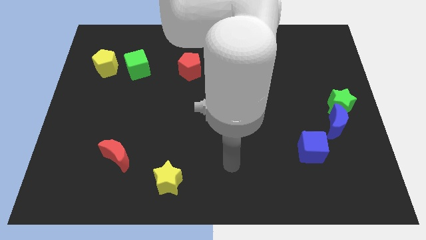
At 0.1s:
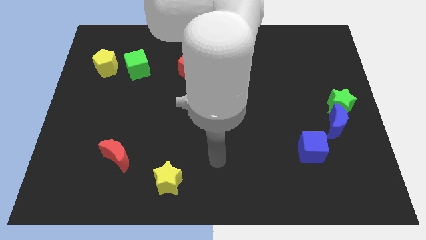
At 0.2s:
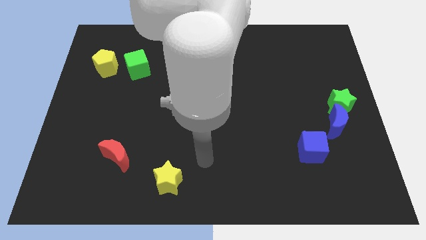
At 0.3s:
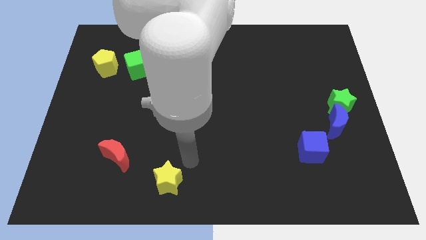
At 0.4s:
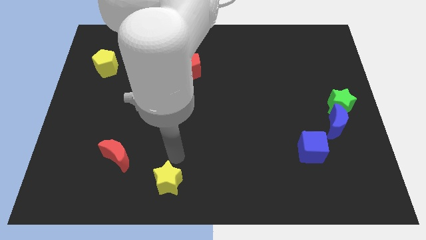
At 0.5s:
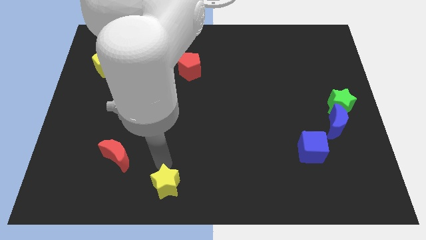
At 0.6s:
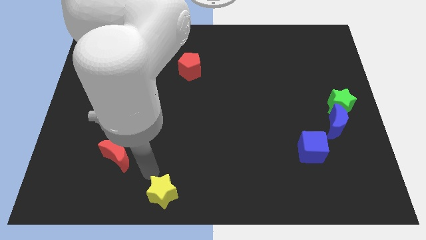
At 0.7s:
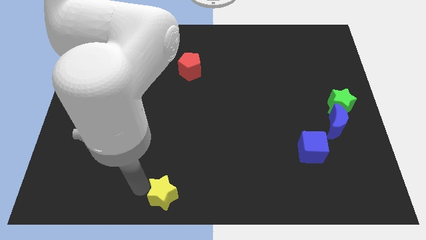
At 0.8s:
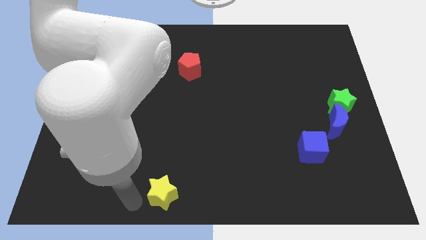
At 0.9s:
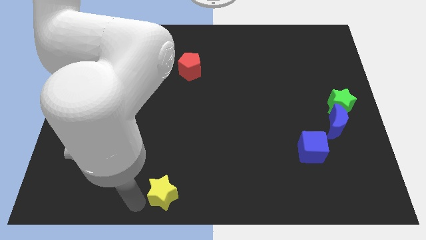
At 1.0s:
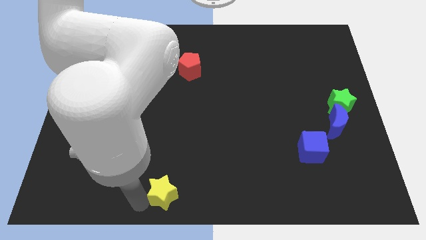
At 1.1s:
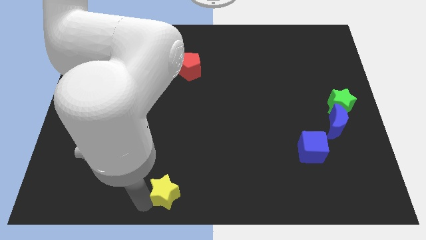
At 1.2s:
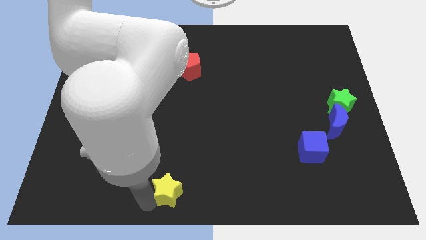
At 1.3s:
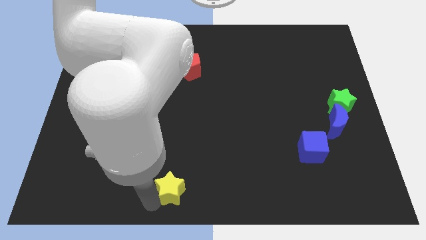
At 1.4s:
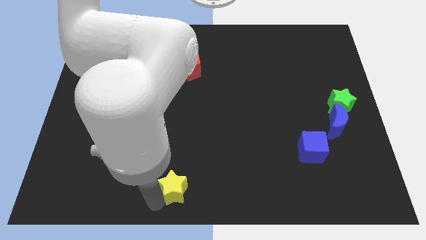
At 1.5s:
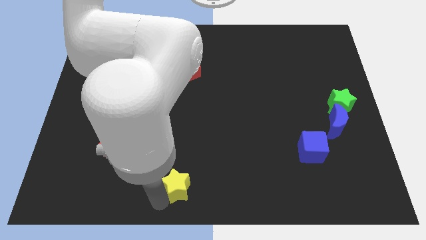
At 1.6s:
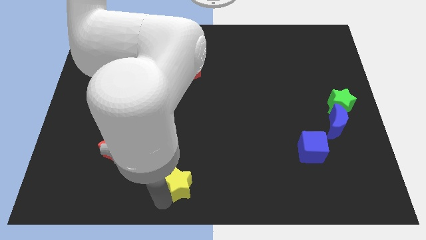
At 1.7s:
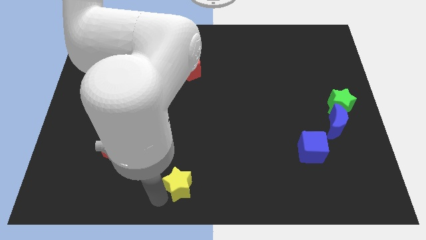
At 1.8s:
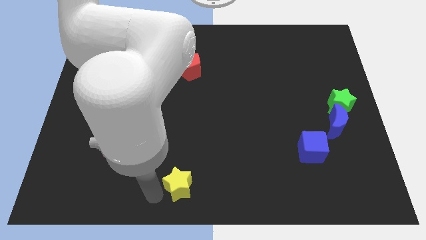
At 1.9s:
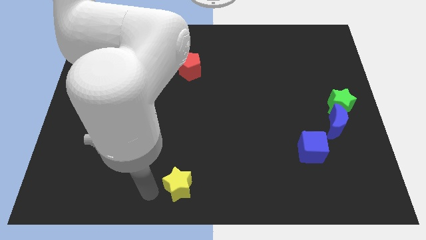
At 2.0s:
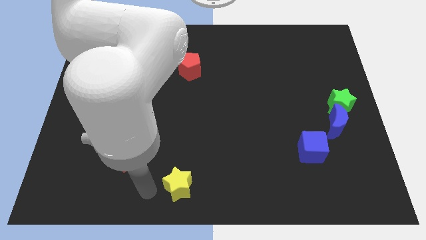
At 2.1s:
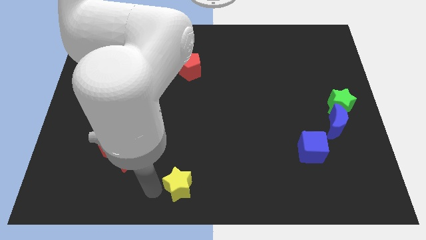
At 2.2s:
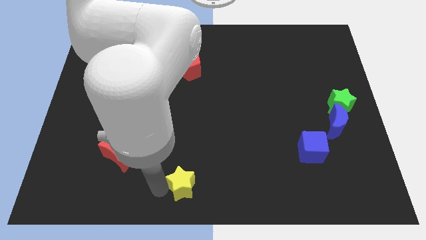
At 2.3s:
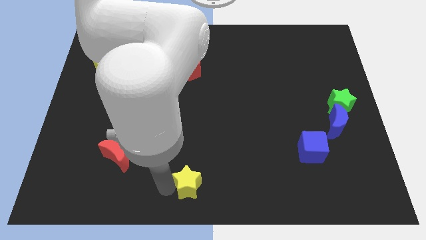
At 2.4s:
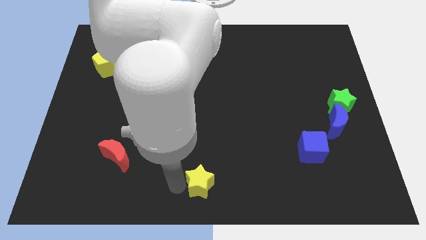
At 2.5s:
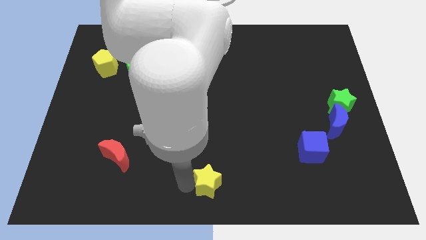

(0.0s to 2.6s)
push the yellow star to the right slightly

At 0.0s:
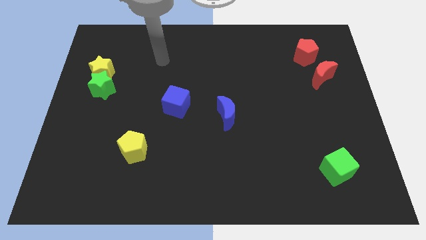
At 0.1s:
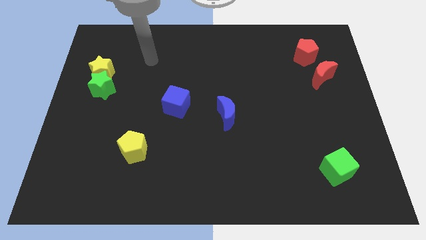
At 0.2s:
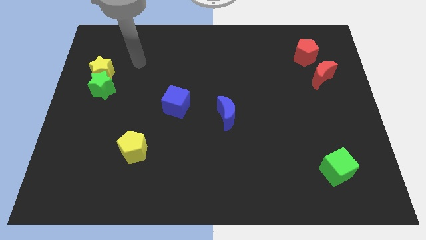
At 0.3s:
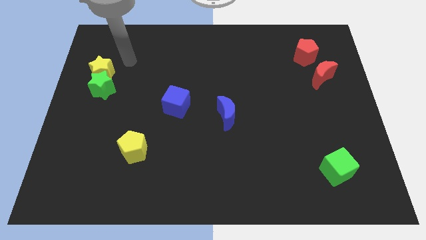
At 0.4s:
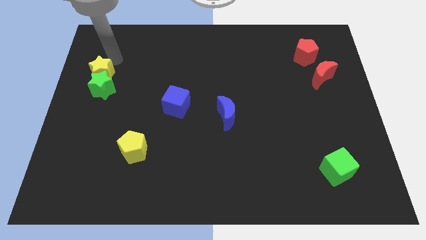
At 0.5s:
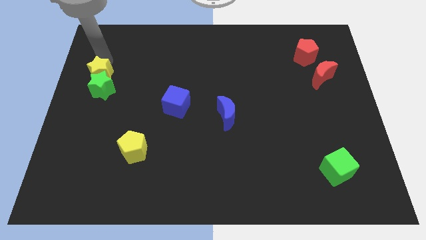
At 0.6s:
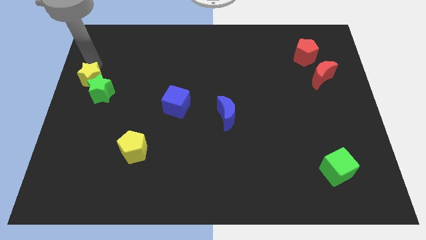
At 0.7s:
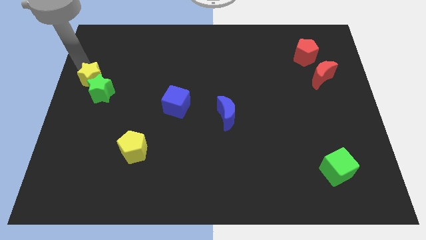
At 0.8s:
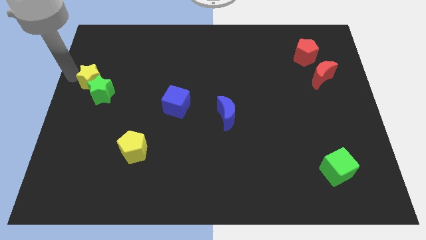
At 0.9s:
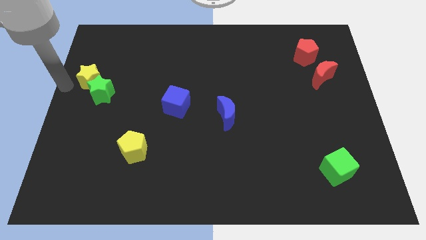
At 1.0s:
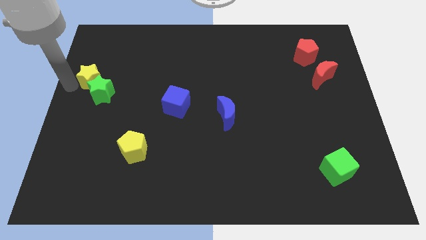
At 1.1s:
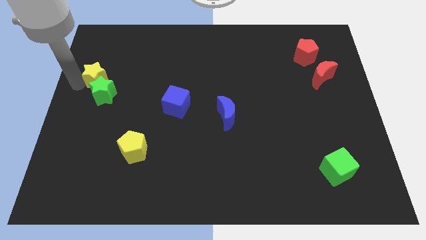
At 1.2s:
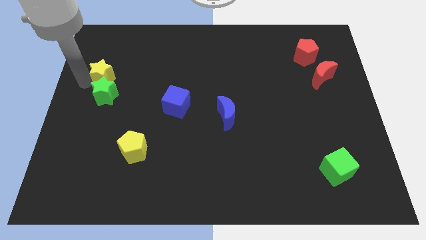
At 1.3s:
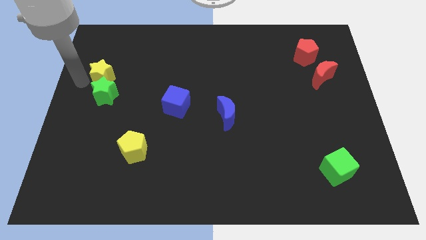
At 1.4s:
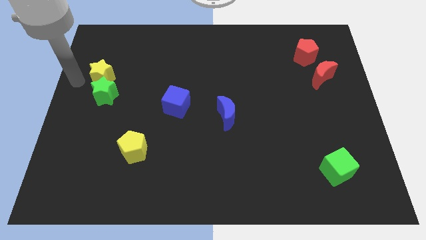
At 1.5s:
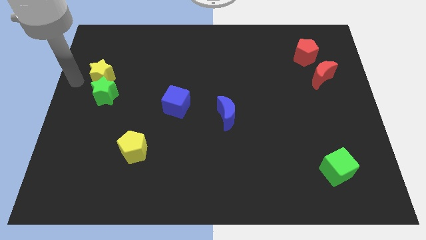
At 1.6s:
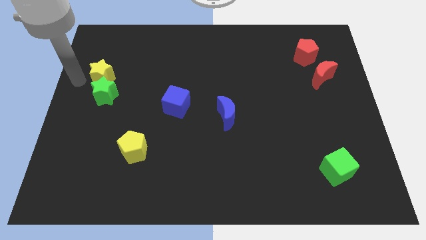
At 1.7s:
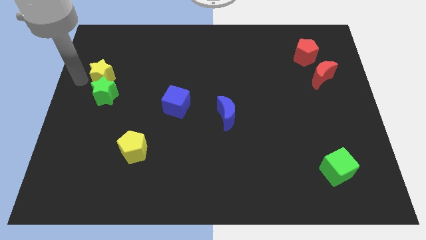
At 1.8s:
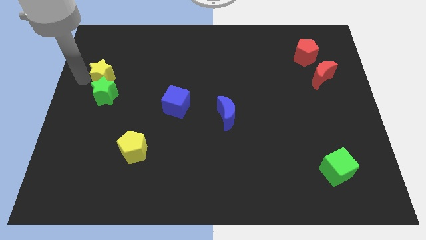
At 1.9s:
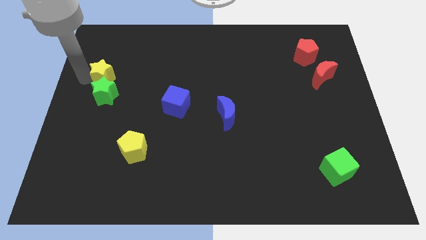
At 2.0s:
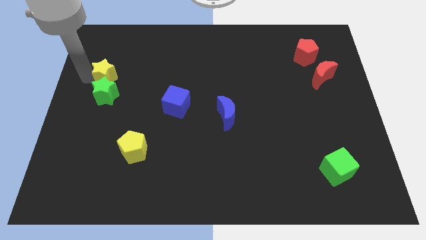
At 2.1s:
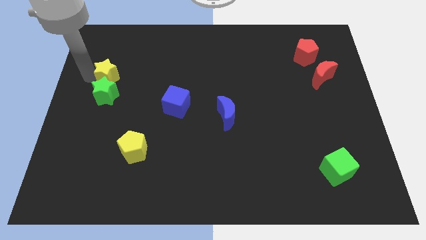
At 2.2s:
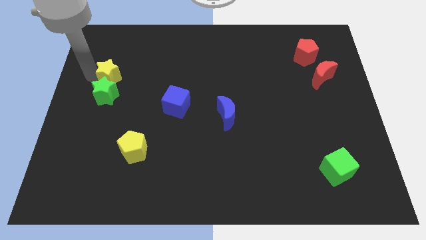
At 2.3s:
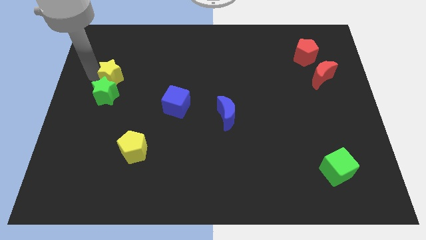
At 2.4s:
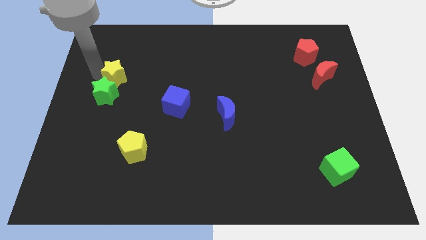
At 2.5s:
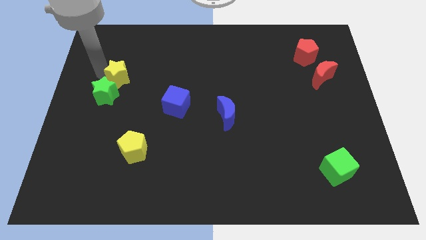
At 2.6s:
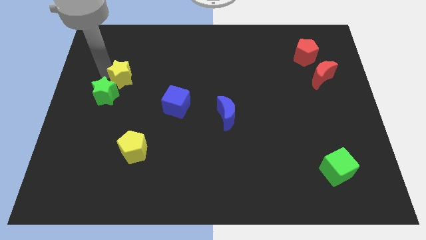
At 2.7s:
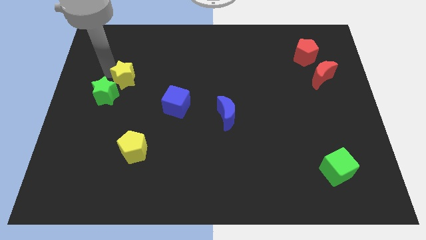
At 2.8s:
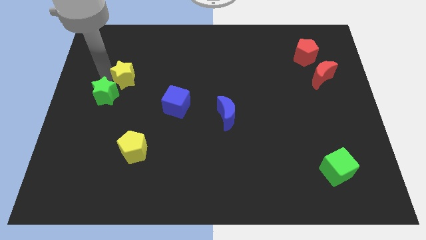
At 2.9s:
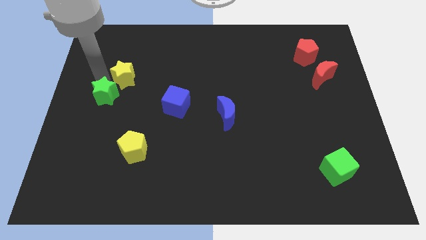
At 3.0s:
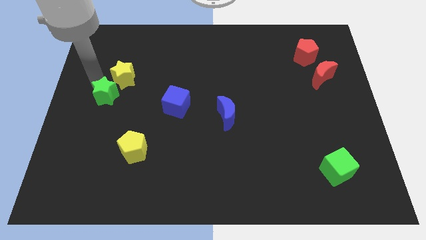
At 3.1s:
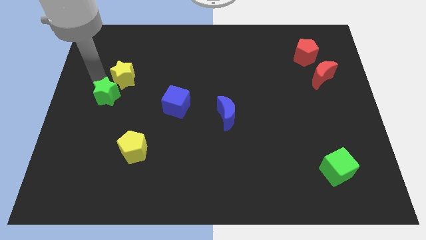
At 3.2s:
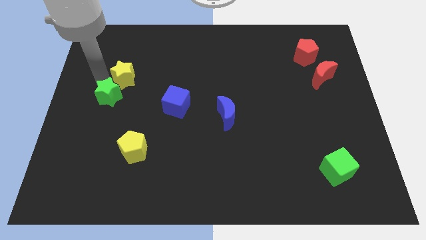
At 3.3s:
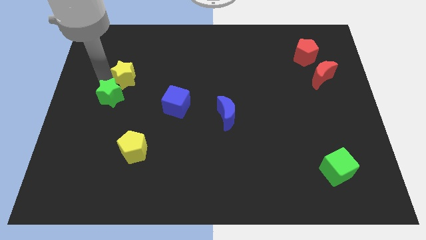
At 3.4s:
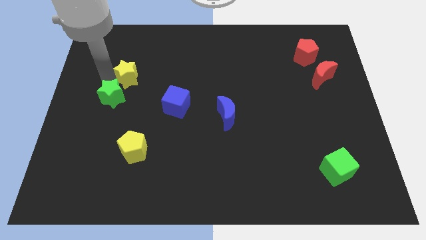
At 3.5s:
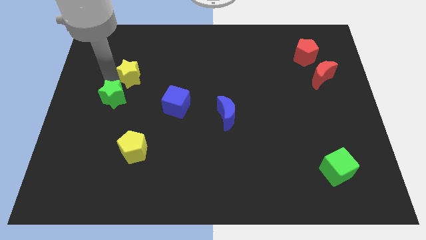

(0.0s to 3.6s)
slide the yellow star somewhat right

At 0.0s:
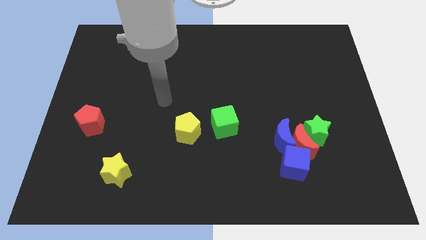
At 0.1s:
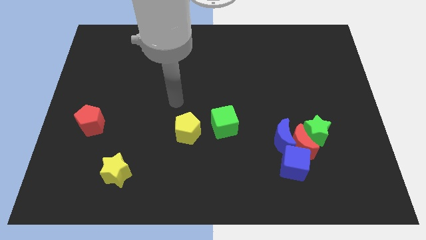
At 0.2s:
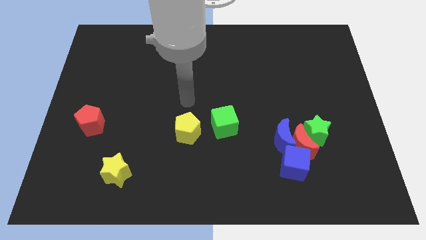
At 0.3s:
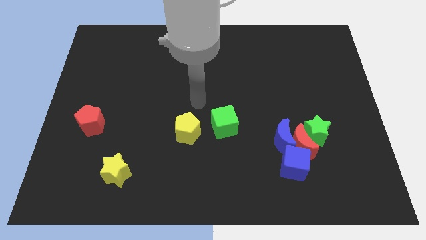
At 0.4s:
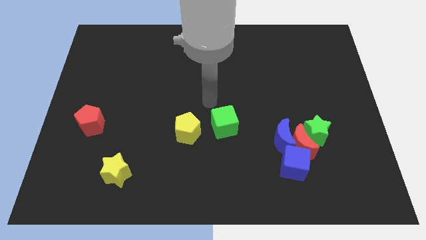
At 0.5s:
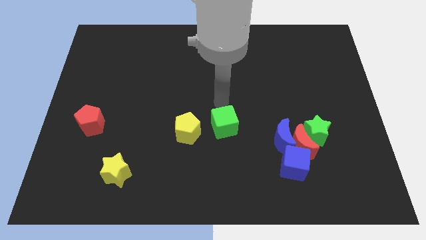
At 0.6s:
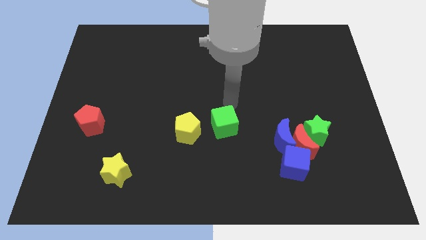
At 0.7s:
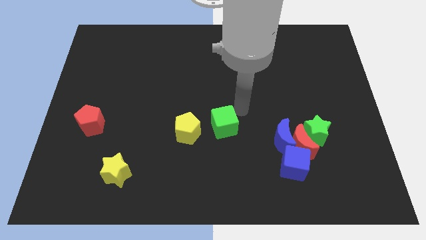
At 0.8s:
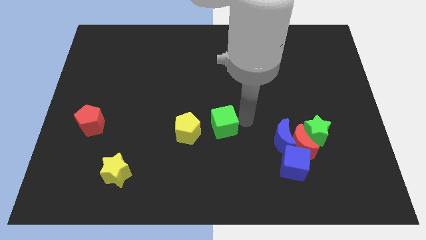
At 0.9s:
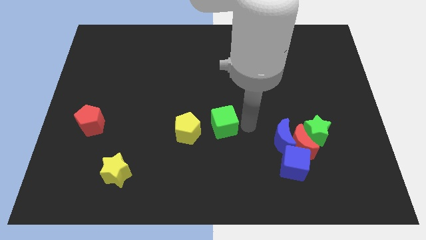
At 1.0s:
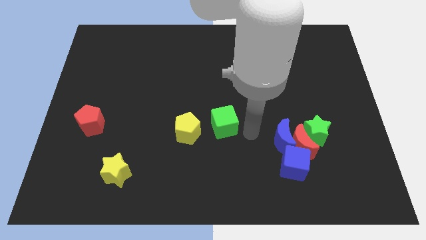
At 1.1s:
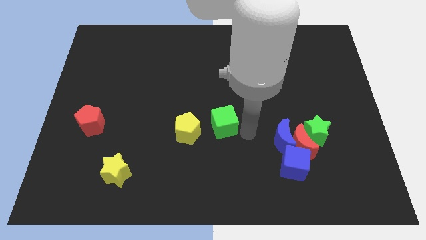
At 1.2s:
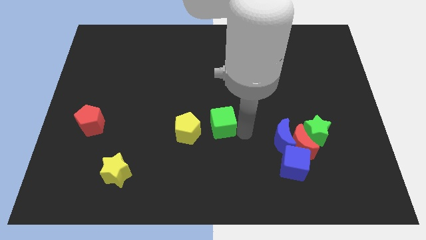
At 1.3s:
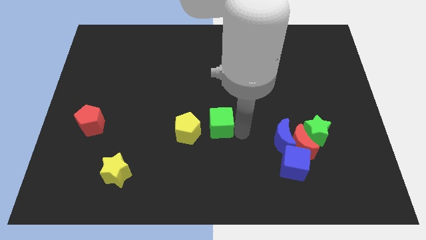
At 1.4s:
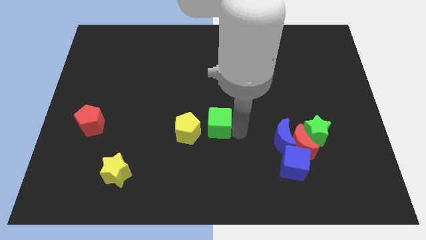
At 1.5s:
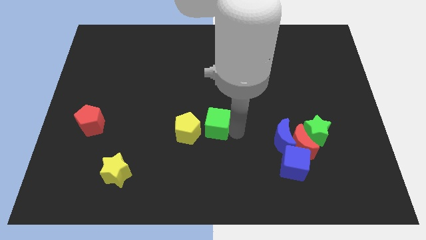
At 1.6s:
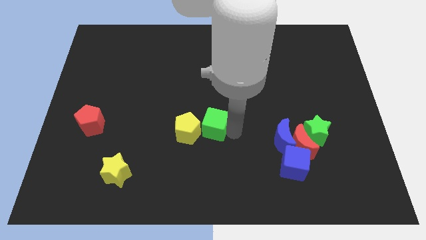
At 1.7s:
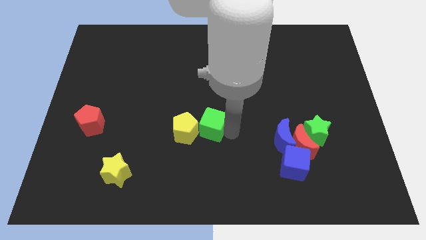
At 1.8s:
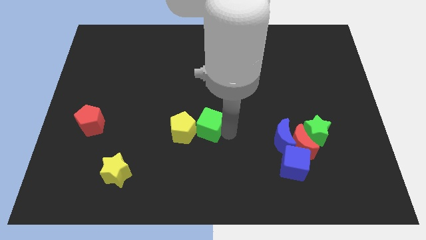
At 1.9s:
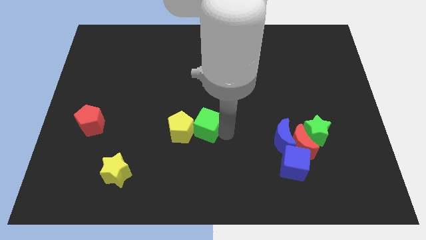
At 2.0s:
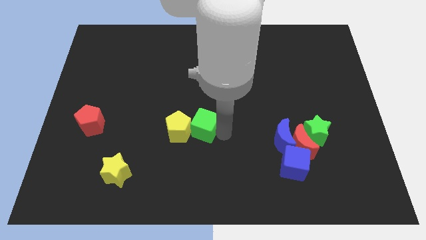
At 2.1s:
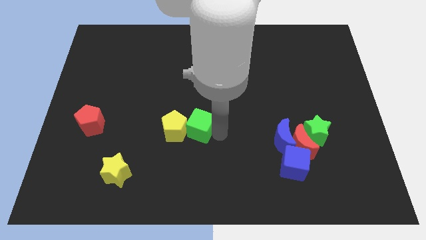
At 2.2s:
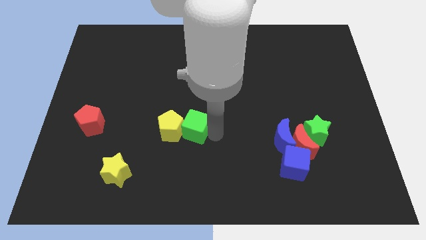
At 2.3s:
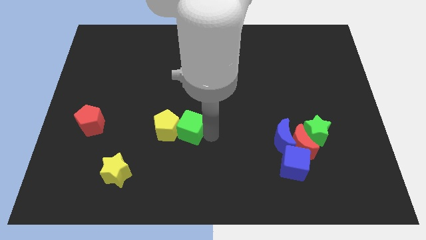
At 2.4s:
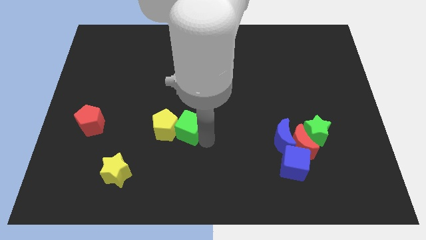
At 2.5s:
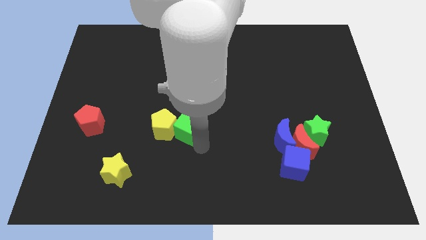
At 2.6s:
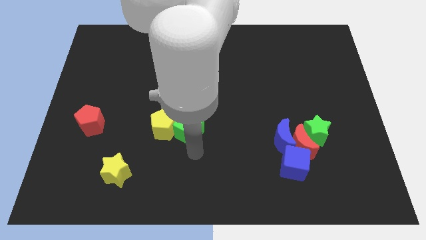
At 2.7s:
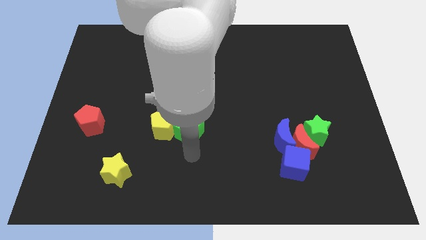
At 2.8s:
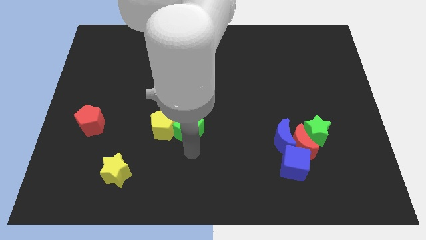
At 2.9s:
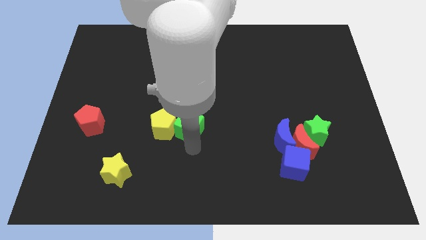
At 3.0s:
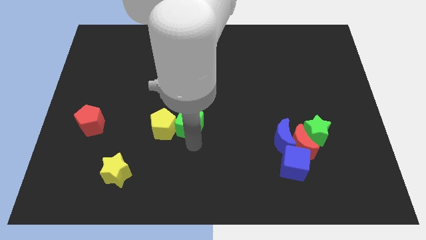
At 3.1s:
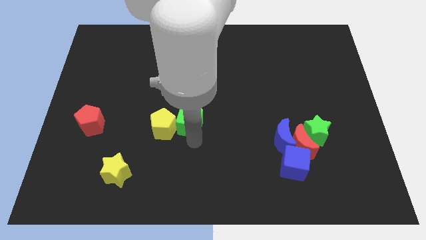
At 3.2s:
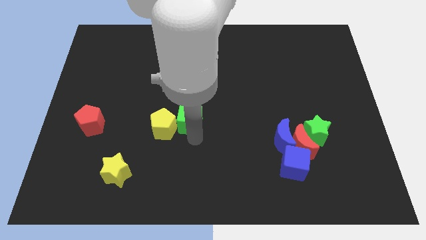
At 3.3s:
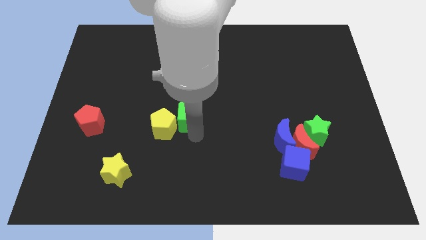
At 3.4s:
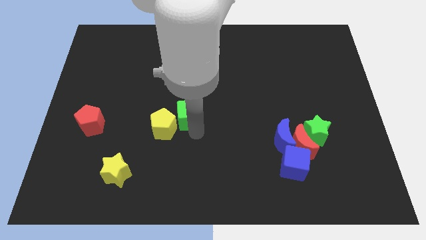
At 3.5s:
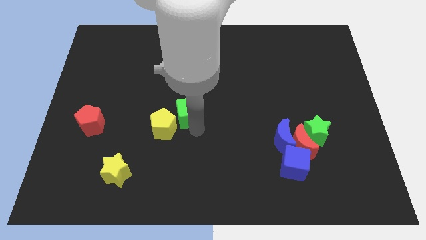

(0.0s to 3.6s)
push the green cube a little bit upwards and to the left
